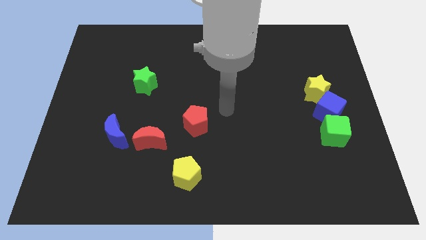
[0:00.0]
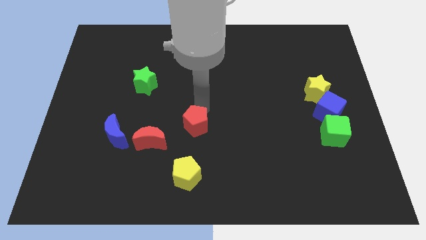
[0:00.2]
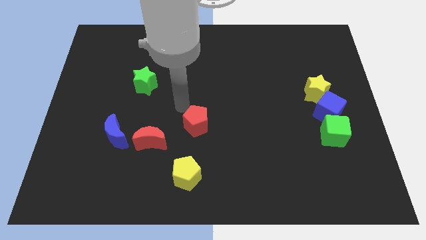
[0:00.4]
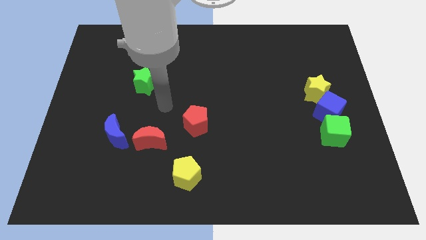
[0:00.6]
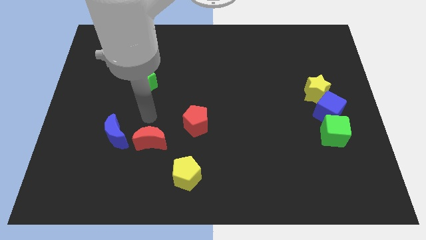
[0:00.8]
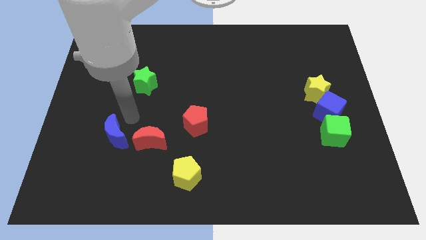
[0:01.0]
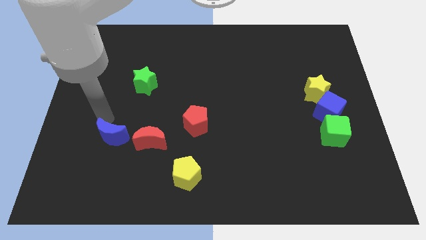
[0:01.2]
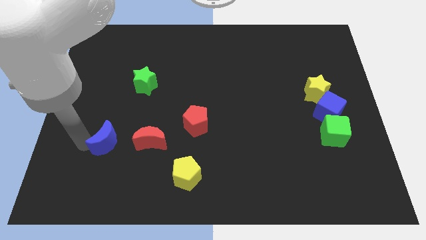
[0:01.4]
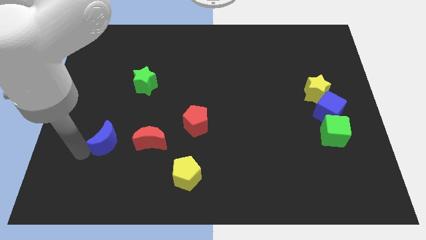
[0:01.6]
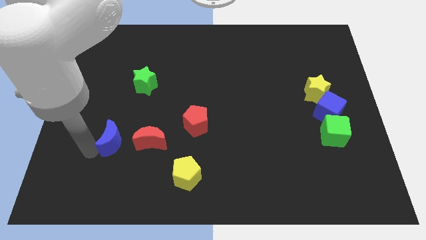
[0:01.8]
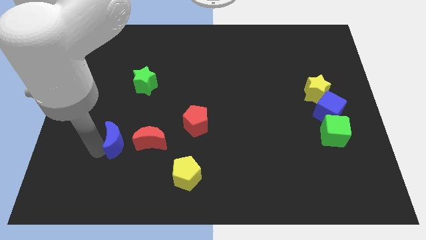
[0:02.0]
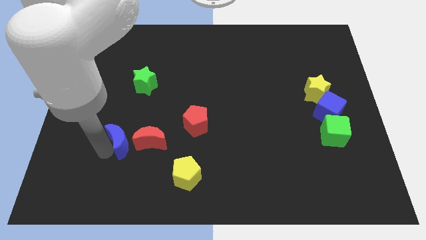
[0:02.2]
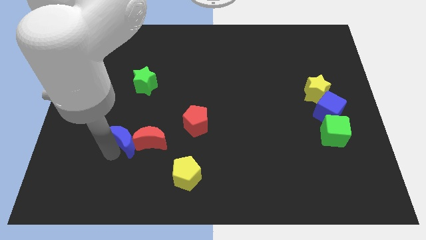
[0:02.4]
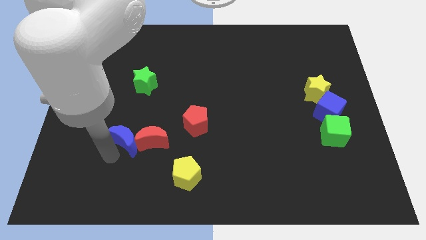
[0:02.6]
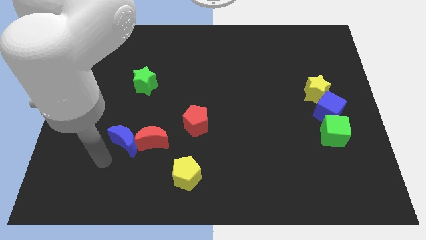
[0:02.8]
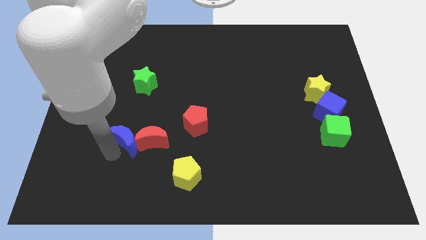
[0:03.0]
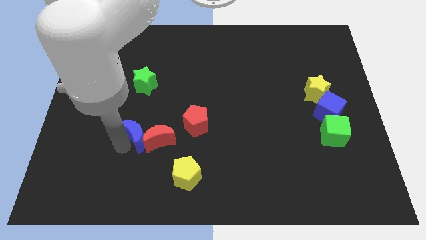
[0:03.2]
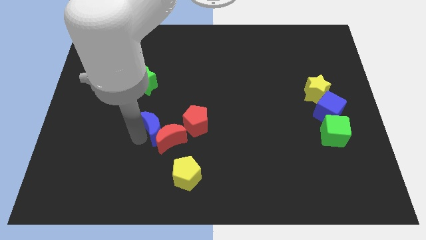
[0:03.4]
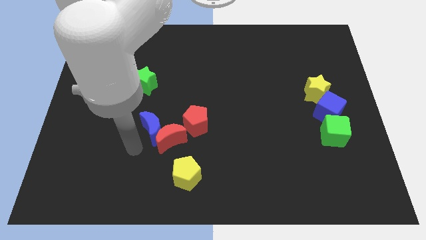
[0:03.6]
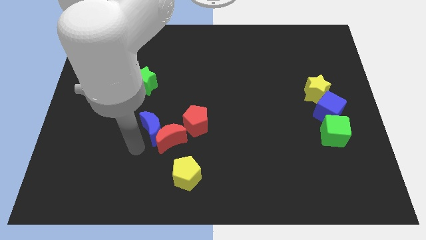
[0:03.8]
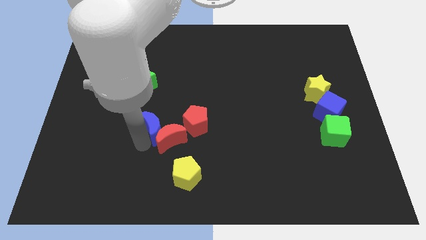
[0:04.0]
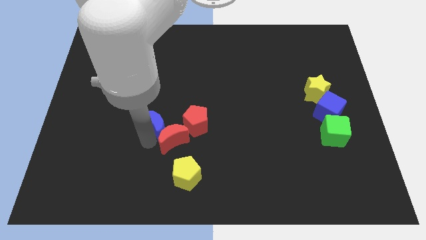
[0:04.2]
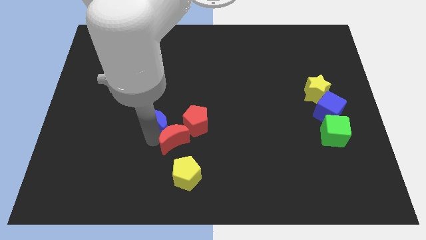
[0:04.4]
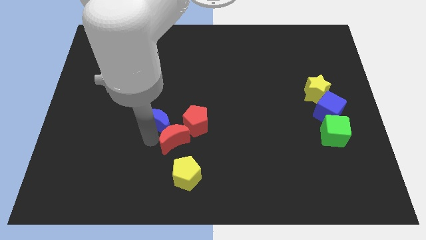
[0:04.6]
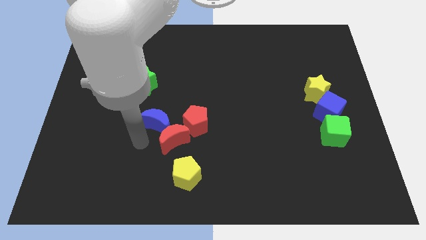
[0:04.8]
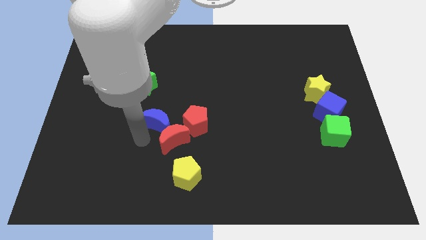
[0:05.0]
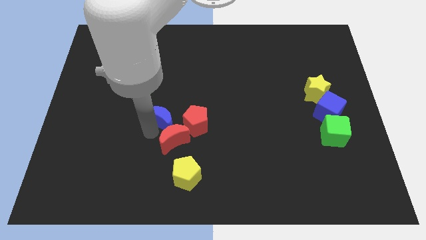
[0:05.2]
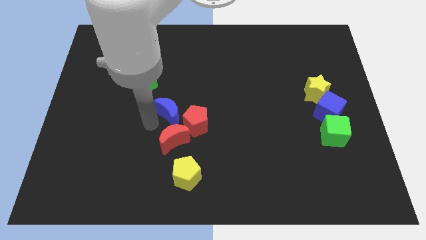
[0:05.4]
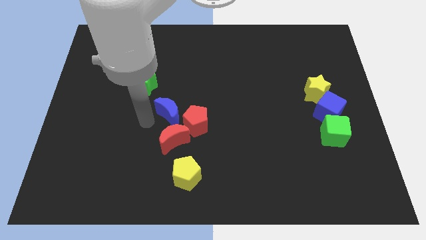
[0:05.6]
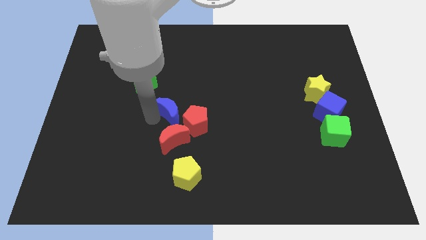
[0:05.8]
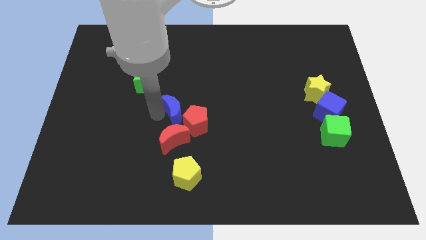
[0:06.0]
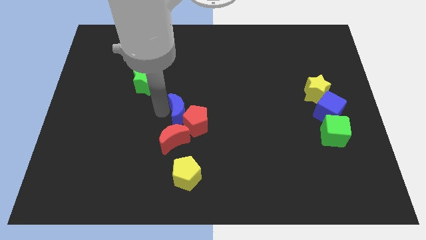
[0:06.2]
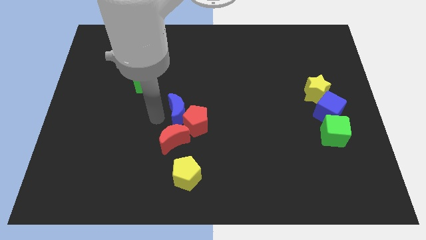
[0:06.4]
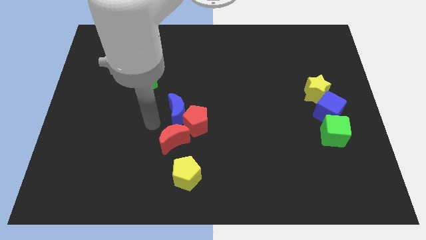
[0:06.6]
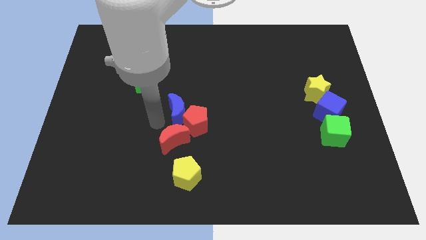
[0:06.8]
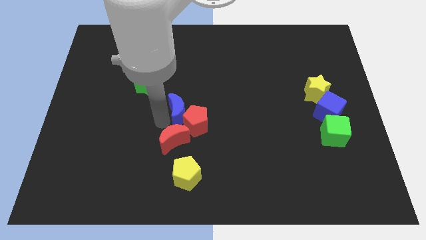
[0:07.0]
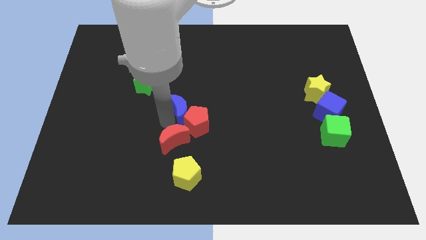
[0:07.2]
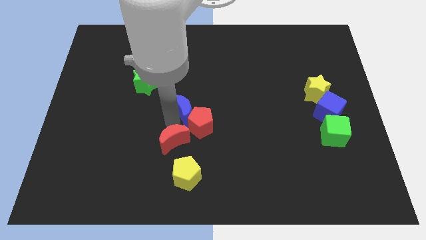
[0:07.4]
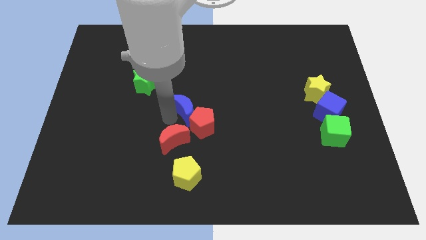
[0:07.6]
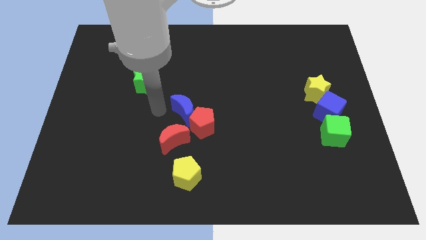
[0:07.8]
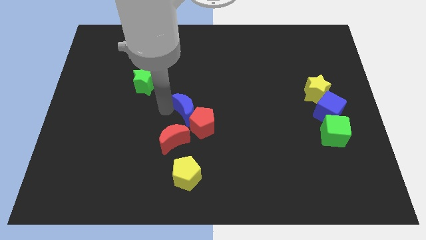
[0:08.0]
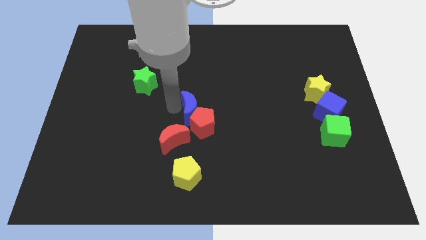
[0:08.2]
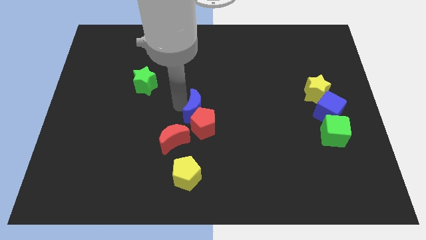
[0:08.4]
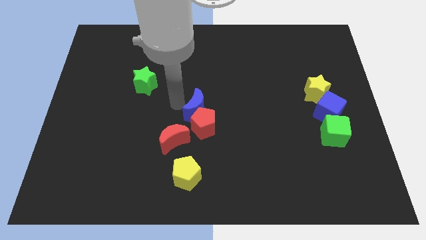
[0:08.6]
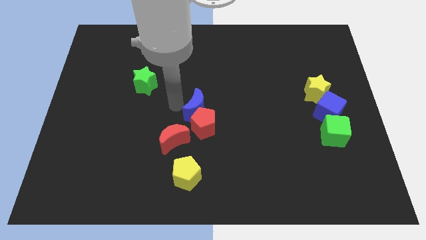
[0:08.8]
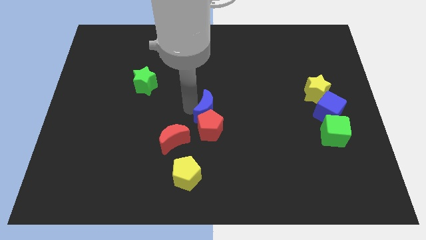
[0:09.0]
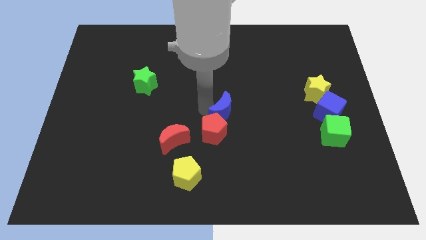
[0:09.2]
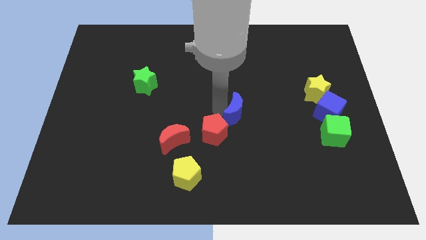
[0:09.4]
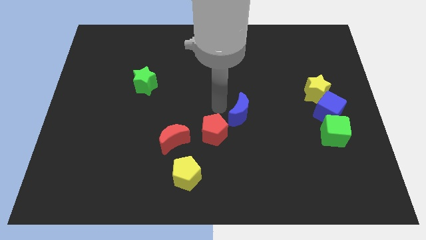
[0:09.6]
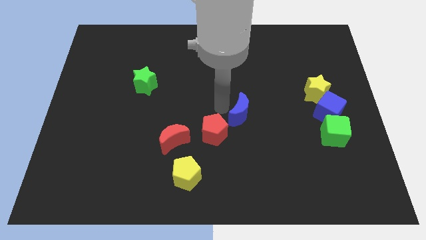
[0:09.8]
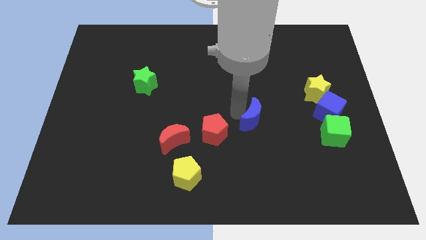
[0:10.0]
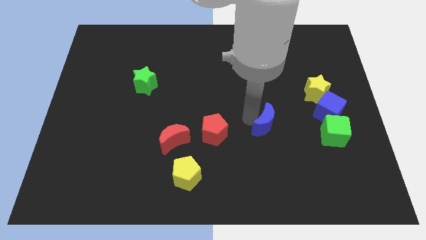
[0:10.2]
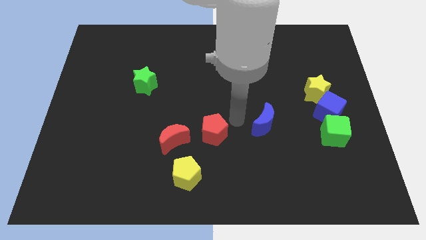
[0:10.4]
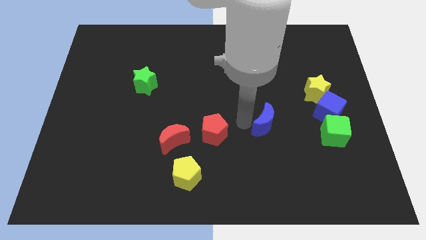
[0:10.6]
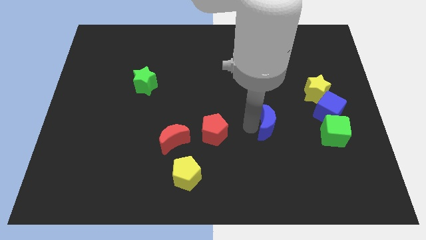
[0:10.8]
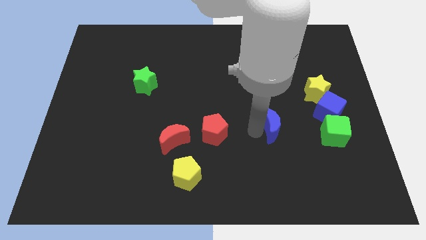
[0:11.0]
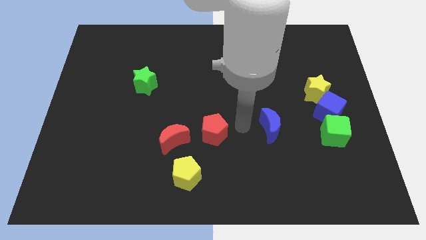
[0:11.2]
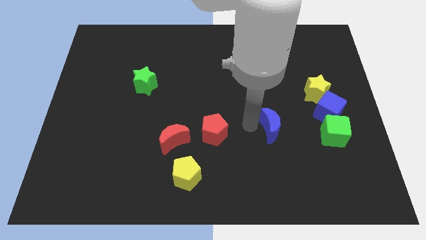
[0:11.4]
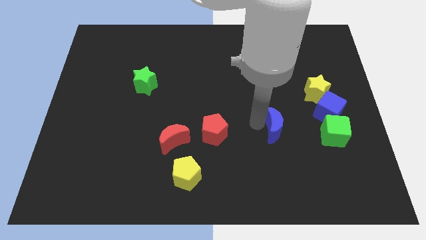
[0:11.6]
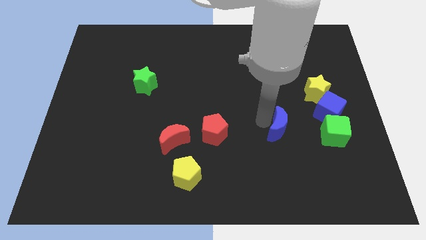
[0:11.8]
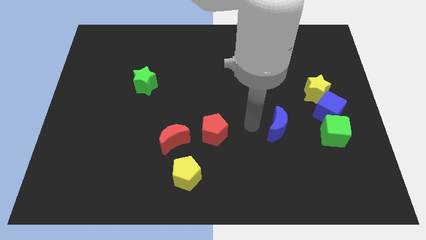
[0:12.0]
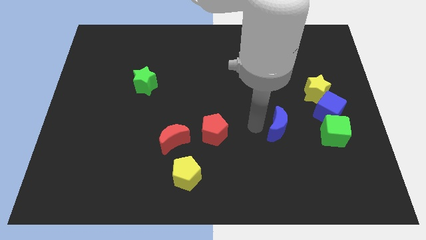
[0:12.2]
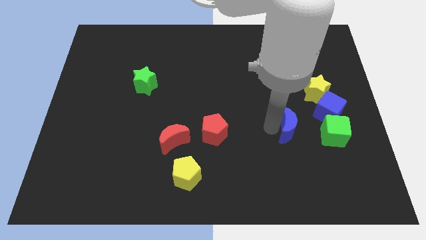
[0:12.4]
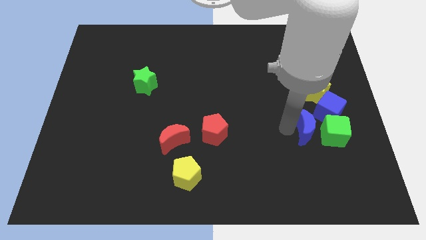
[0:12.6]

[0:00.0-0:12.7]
put the blue moon to the green cube

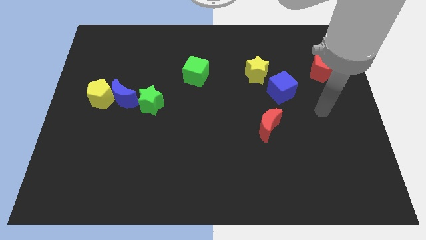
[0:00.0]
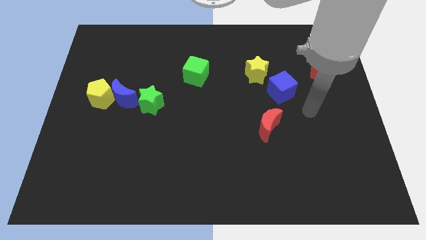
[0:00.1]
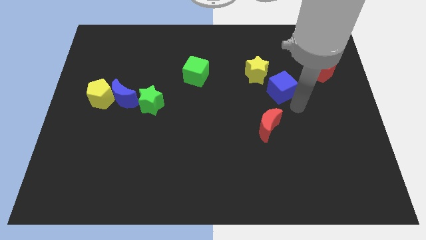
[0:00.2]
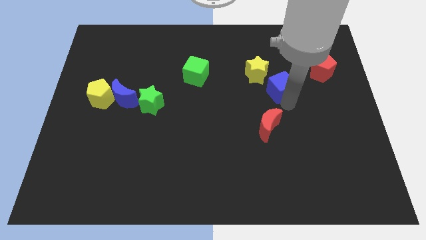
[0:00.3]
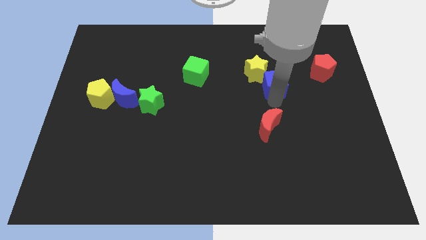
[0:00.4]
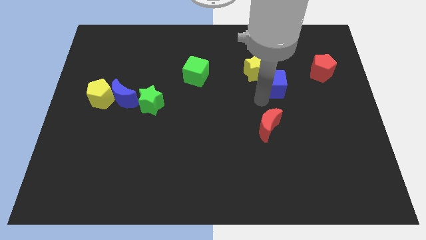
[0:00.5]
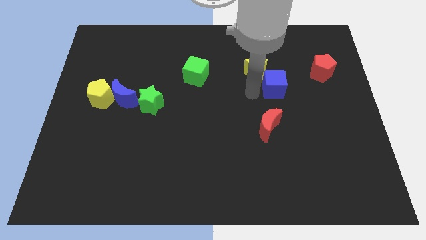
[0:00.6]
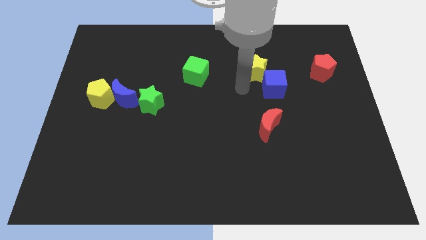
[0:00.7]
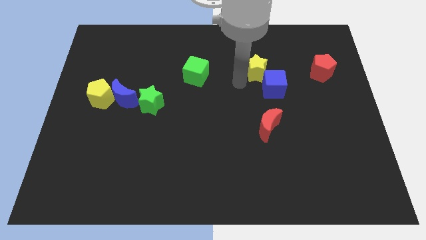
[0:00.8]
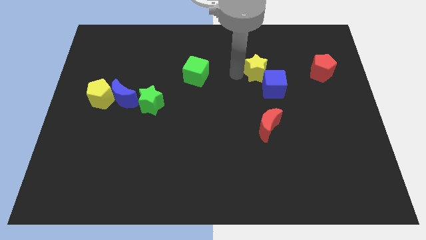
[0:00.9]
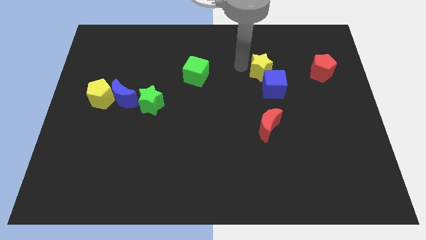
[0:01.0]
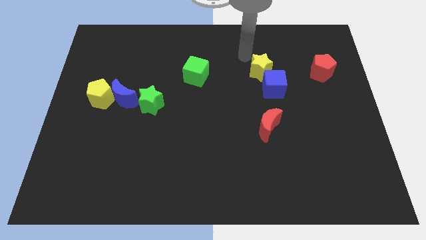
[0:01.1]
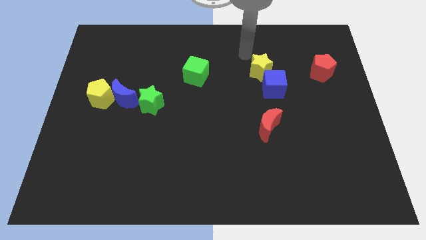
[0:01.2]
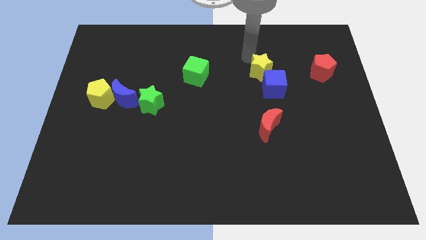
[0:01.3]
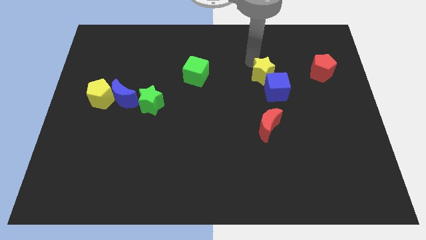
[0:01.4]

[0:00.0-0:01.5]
push the yellow star next to the blue cube
